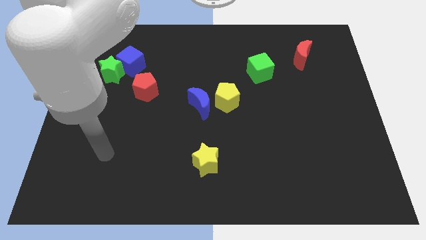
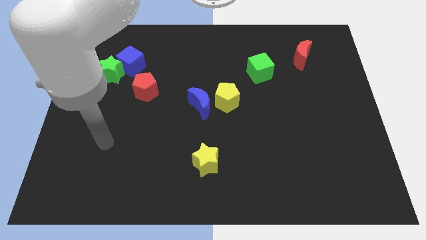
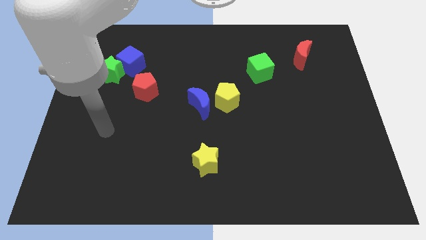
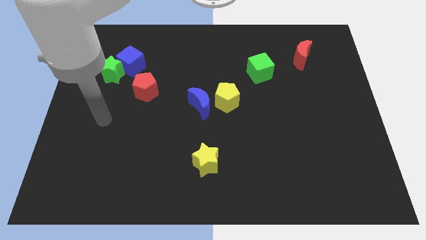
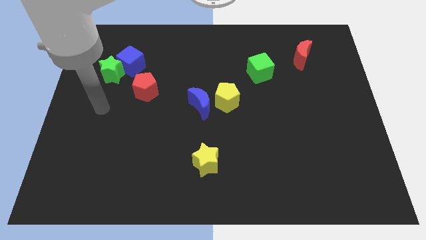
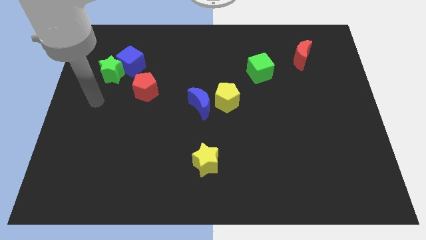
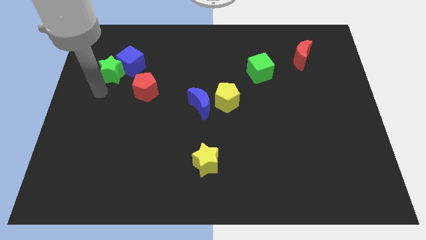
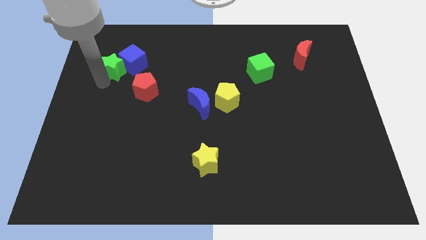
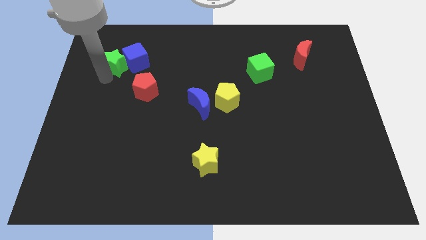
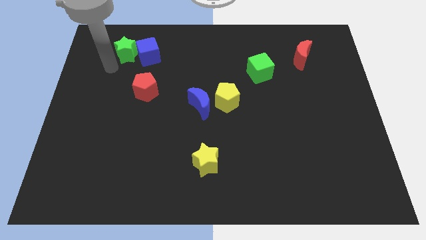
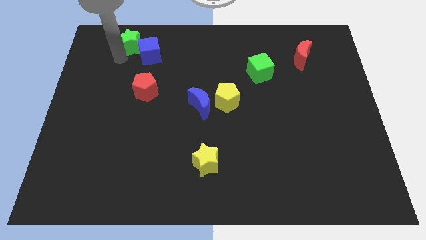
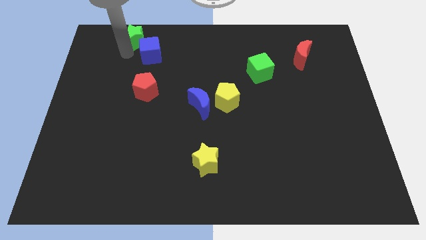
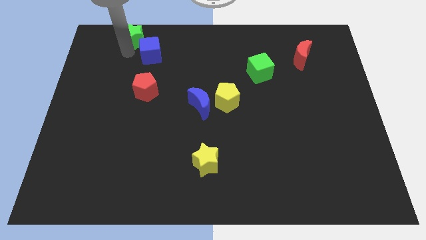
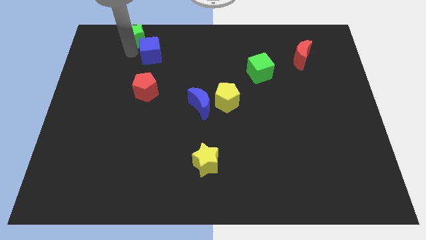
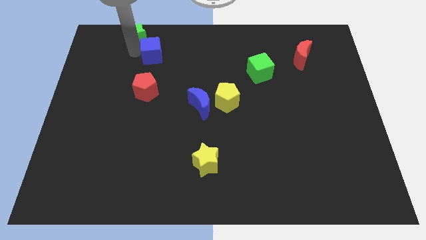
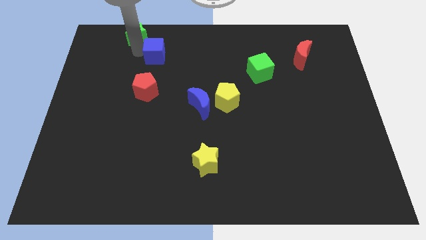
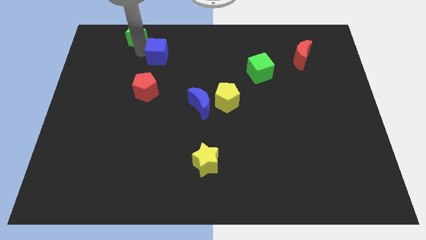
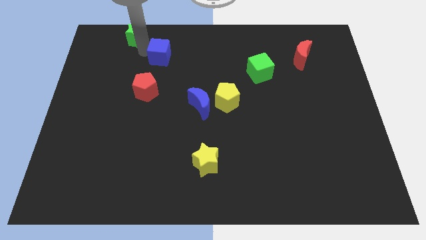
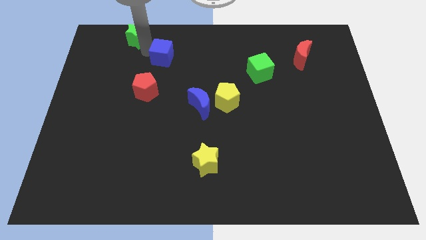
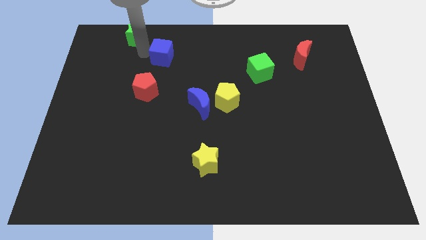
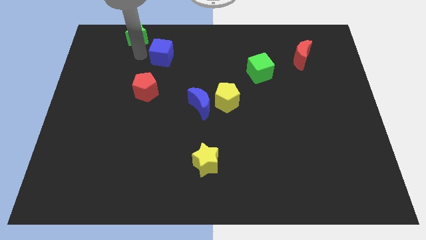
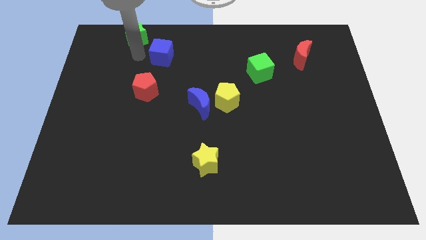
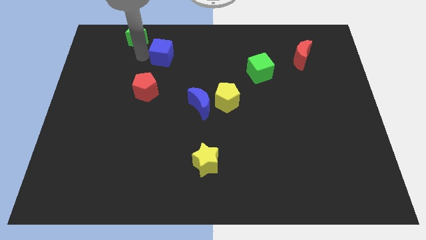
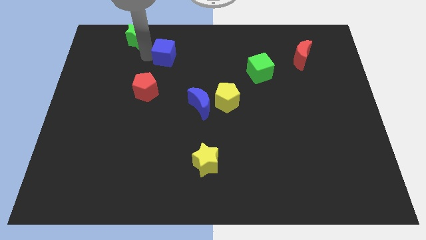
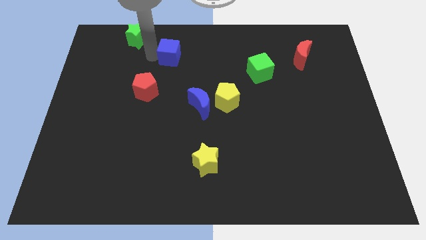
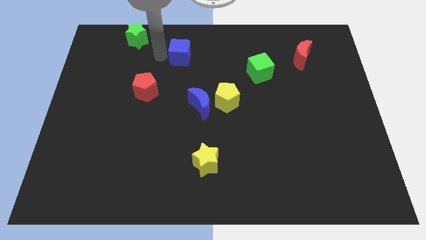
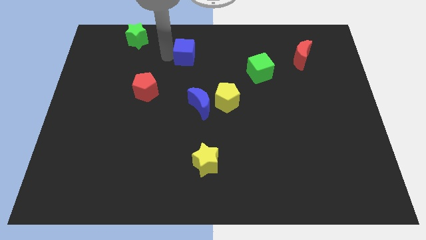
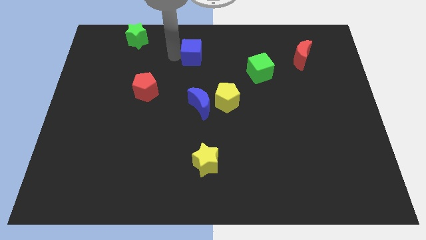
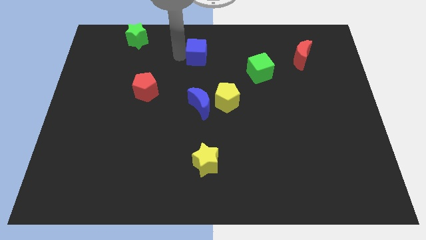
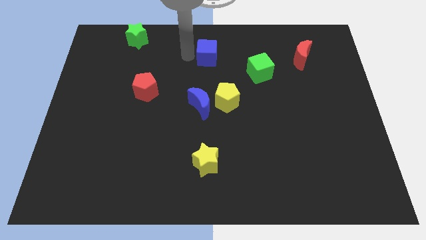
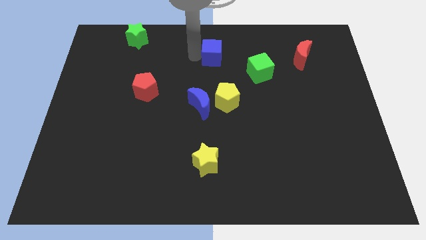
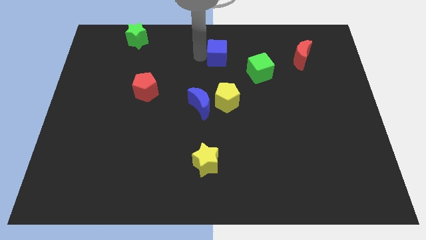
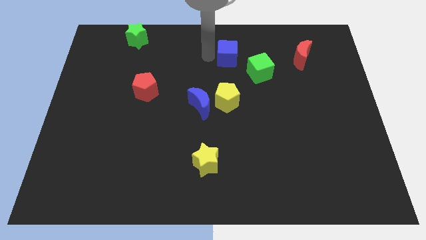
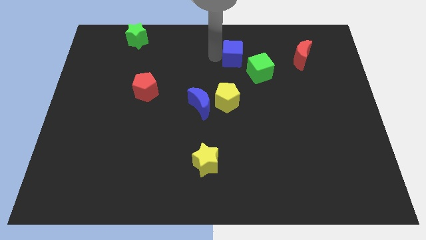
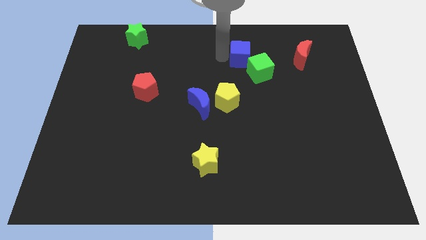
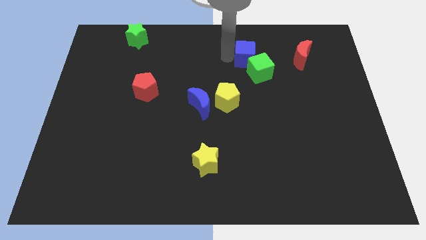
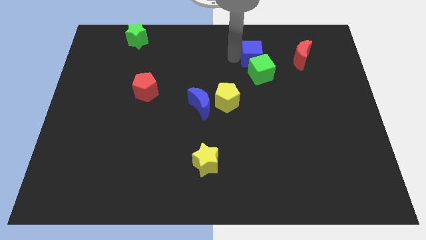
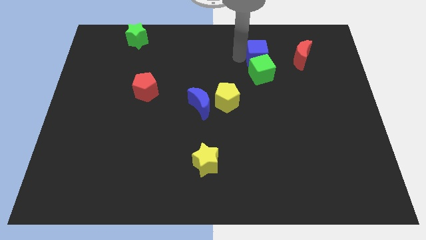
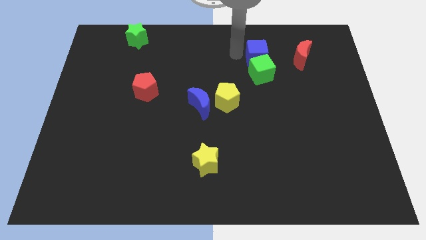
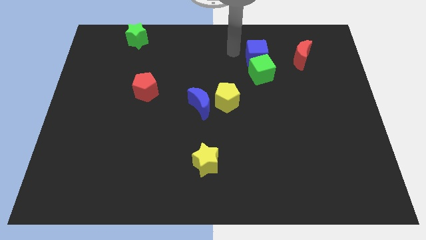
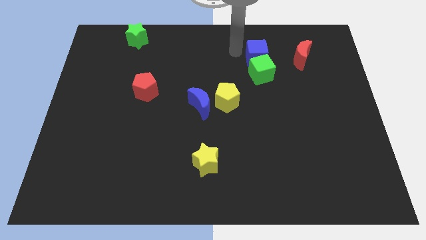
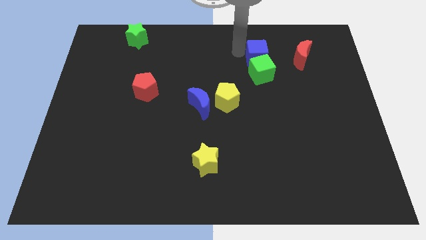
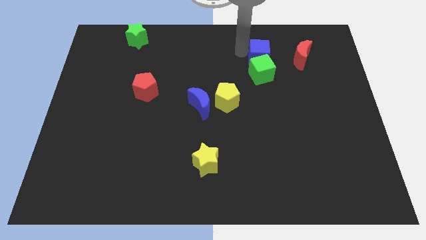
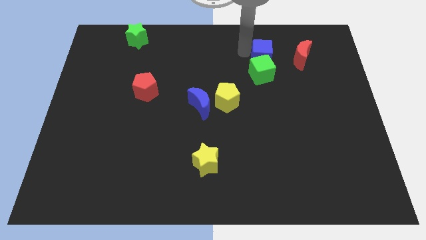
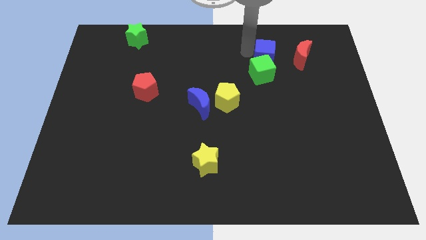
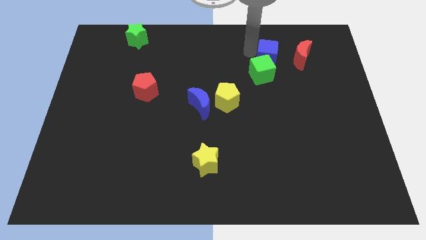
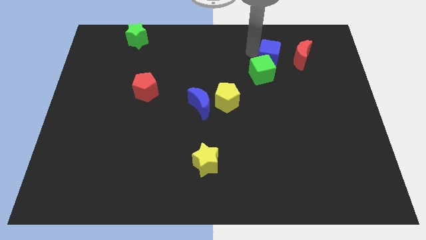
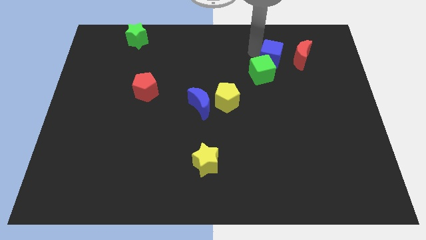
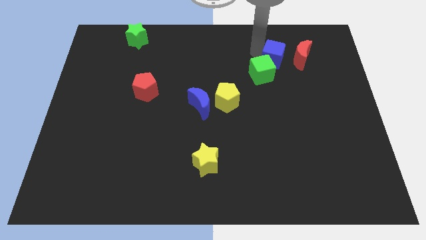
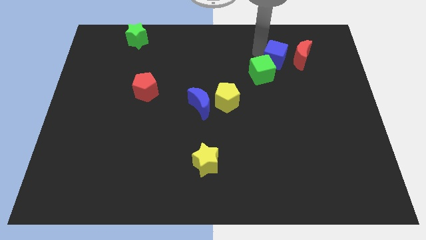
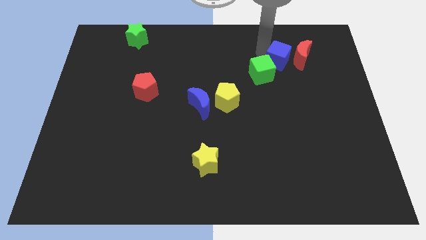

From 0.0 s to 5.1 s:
push the blue cube just right of the green cube

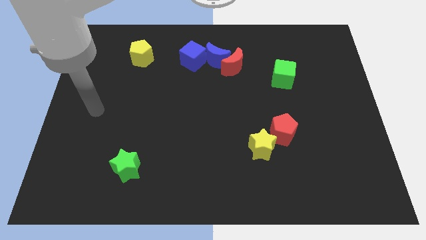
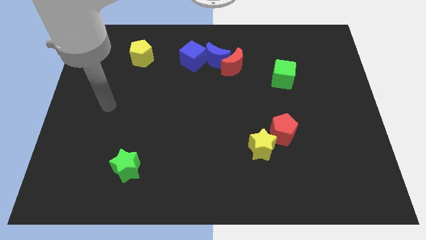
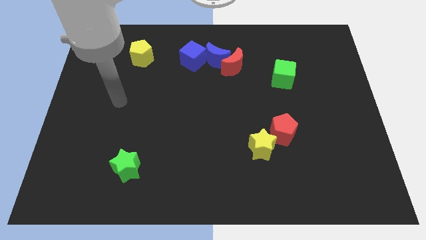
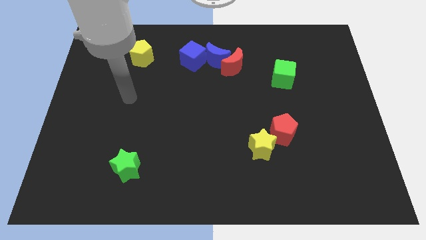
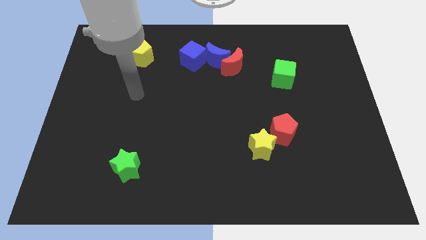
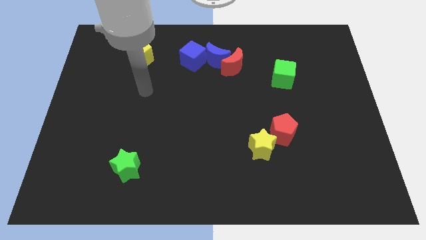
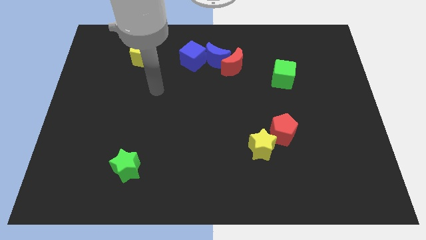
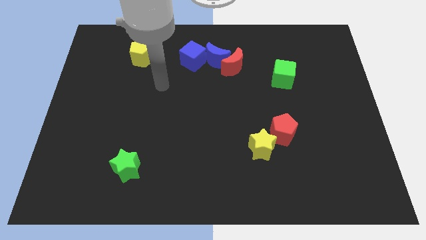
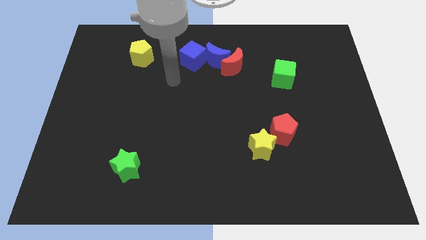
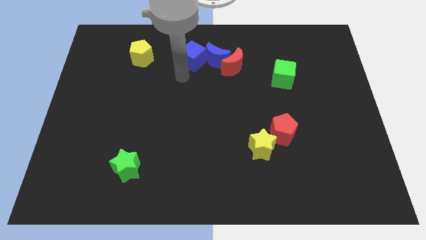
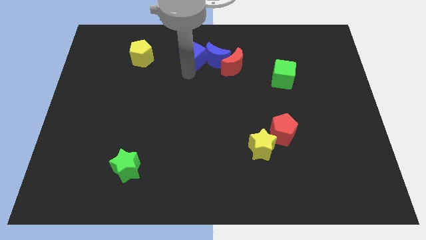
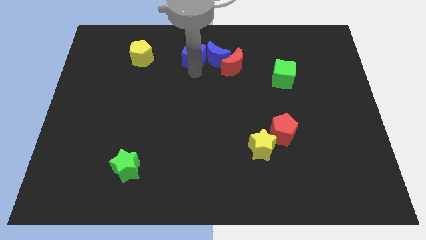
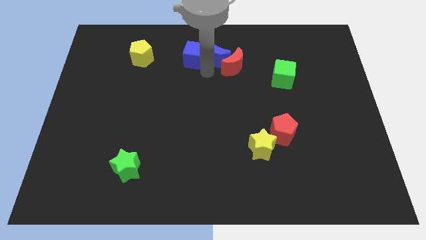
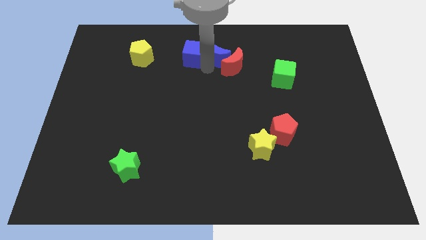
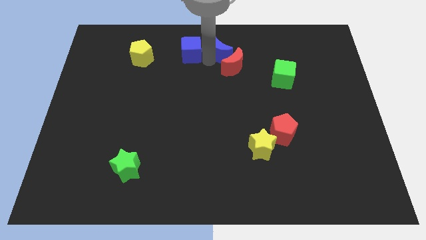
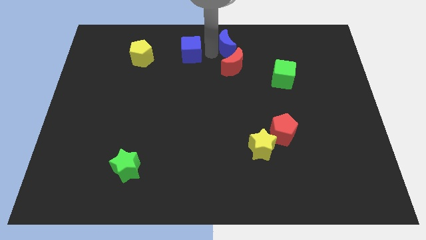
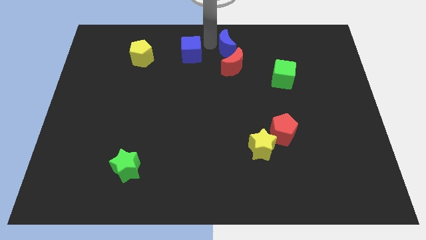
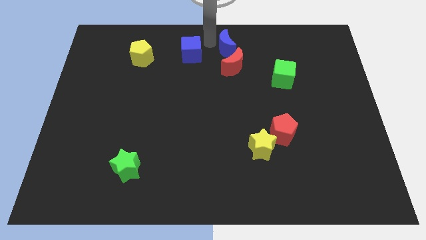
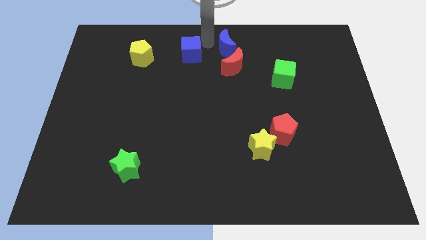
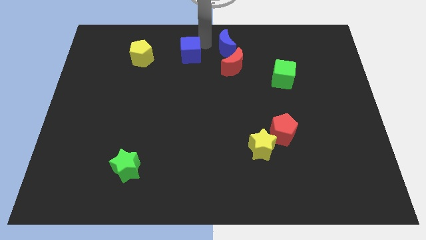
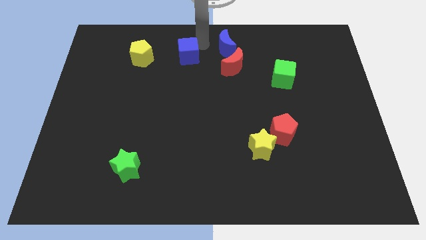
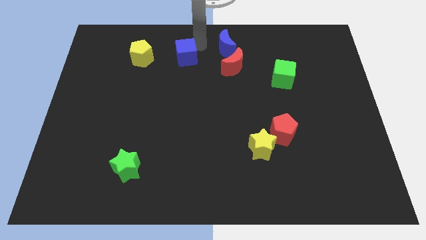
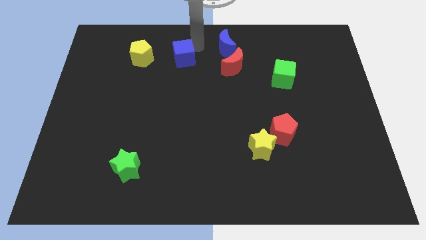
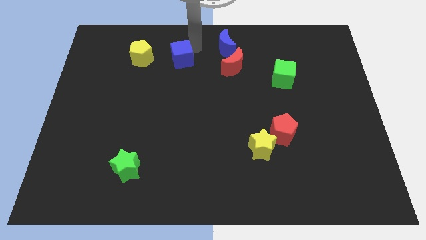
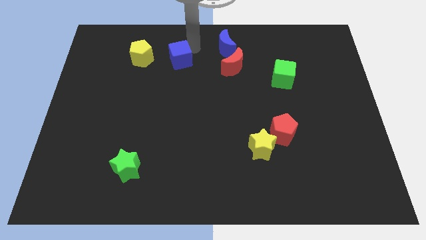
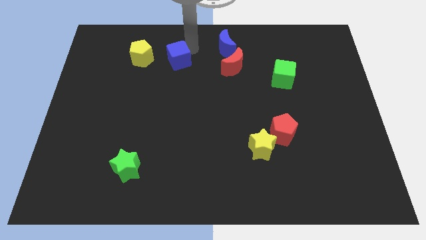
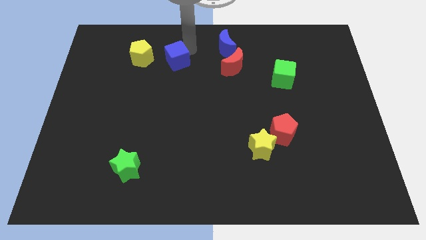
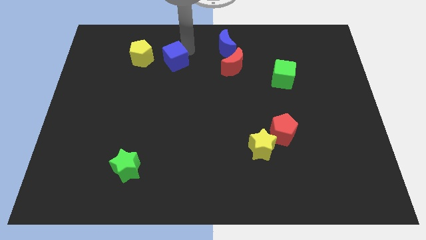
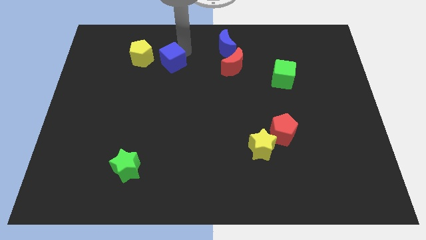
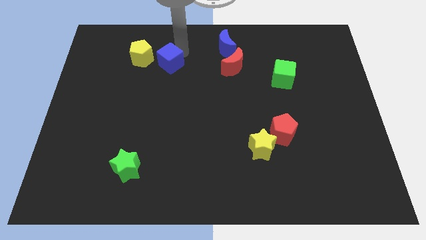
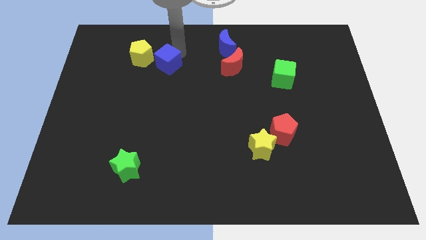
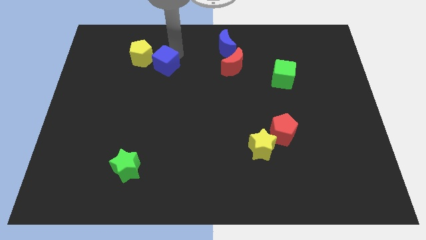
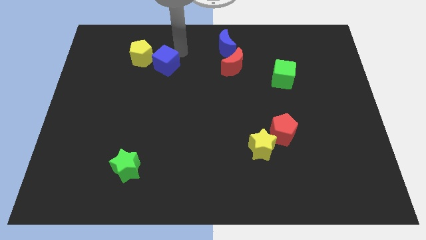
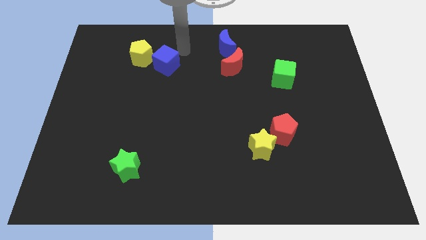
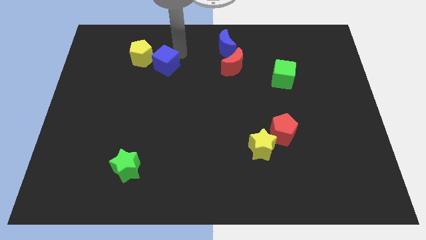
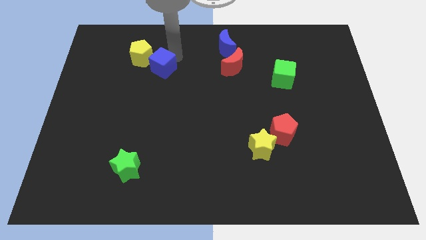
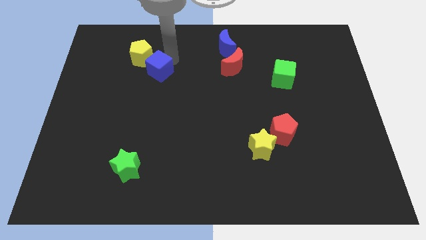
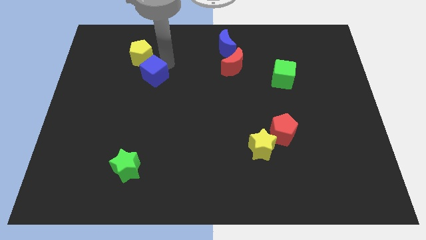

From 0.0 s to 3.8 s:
put the blue cube to the bottom of the yellow pentagon
